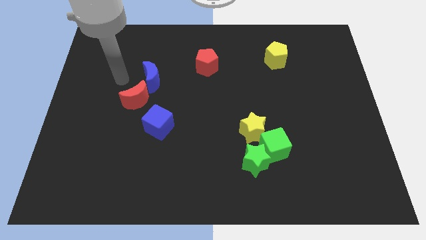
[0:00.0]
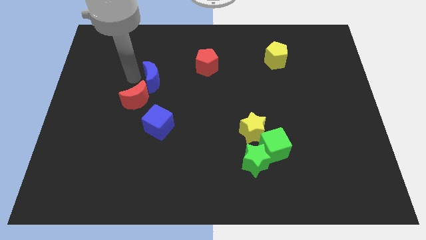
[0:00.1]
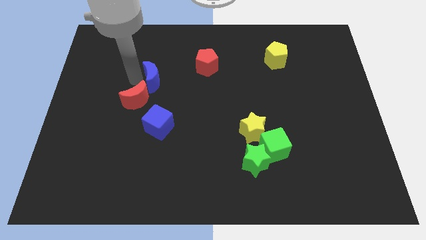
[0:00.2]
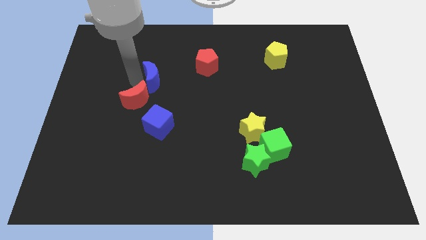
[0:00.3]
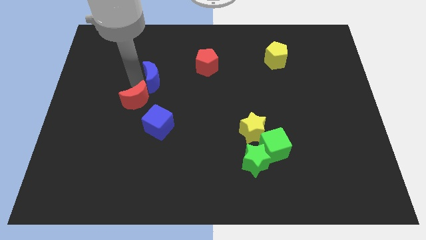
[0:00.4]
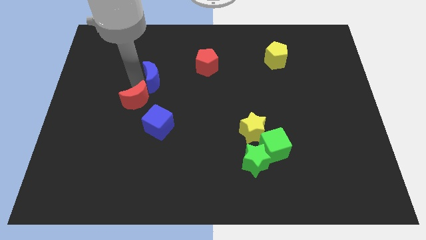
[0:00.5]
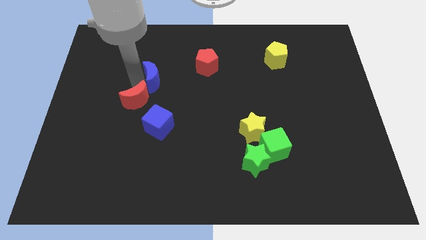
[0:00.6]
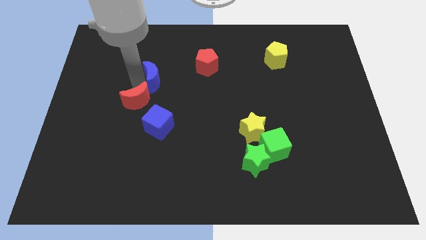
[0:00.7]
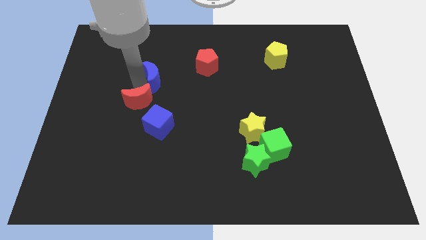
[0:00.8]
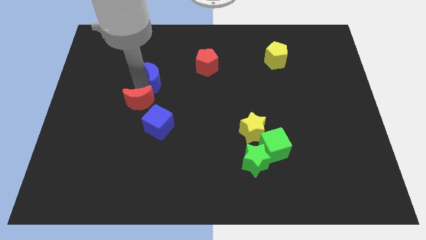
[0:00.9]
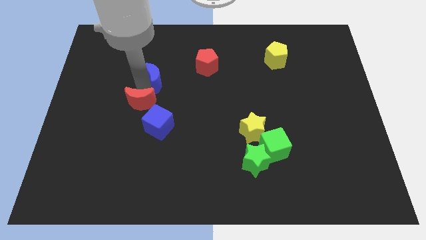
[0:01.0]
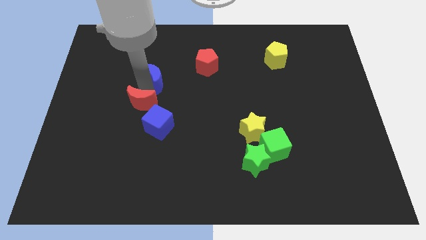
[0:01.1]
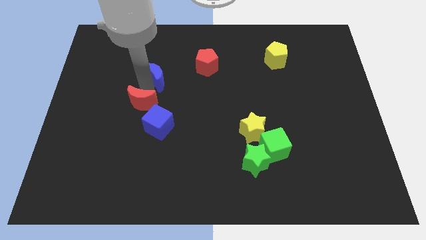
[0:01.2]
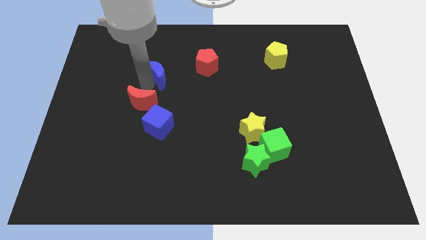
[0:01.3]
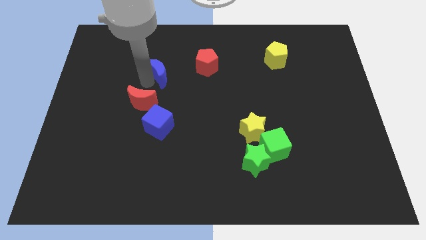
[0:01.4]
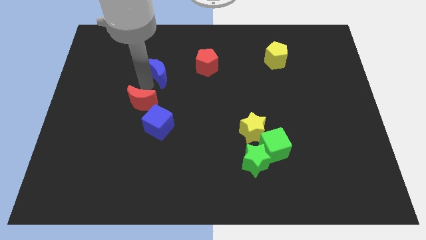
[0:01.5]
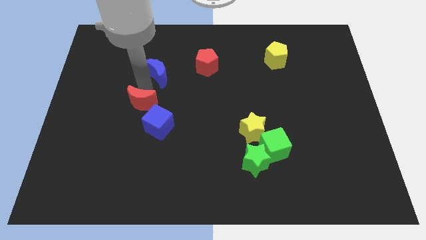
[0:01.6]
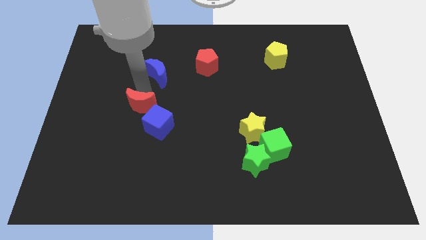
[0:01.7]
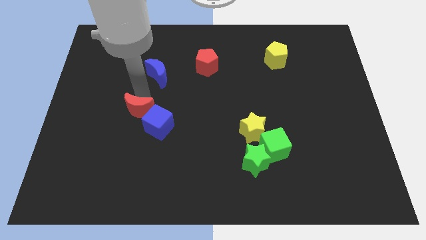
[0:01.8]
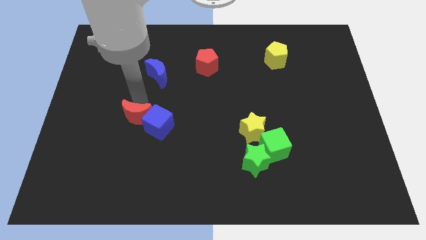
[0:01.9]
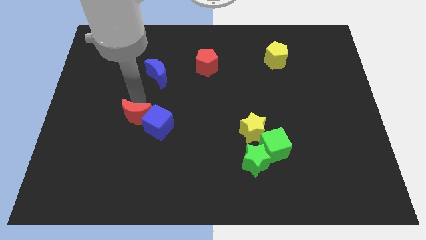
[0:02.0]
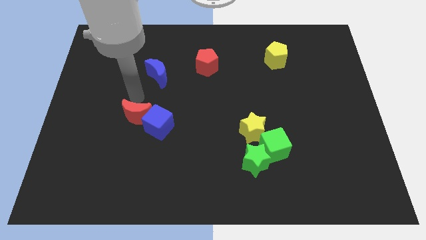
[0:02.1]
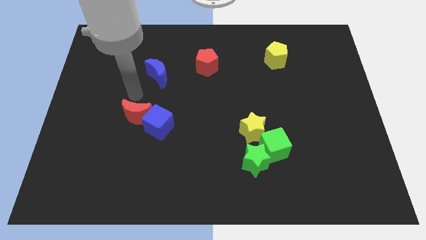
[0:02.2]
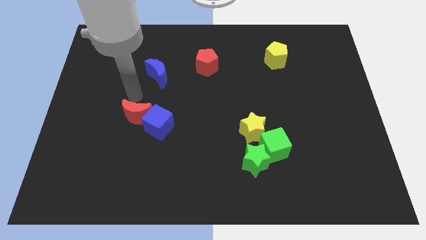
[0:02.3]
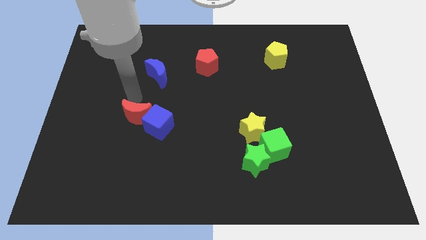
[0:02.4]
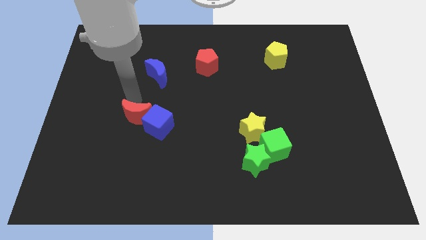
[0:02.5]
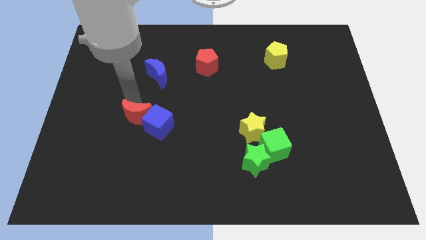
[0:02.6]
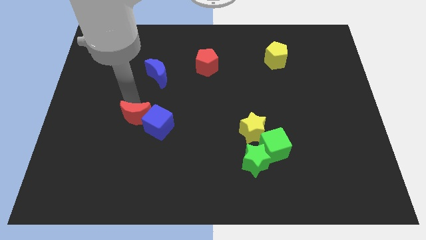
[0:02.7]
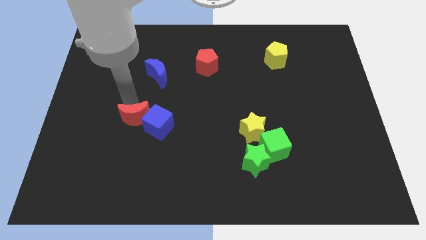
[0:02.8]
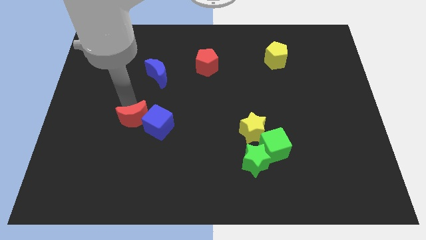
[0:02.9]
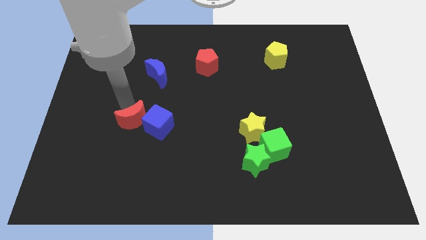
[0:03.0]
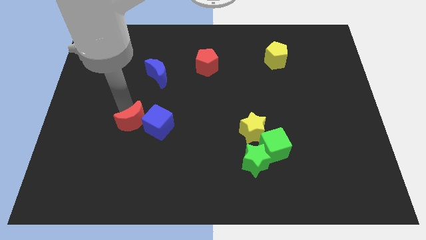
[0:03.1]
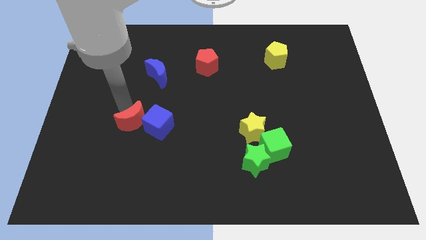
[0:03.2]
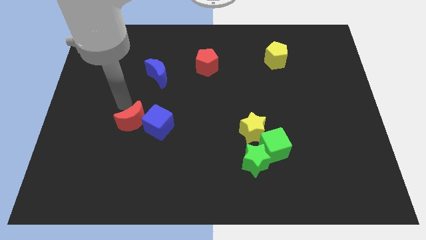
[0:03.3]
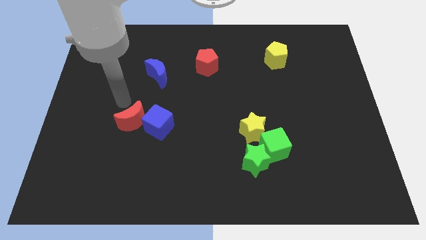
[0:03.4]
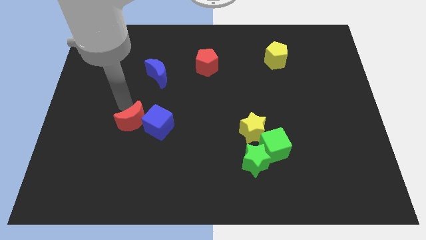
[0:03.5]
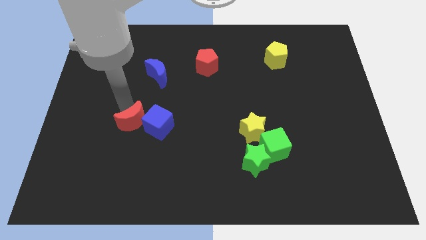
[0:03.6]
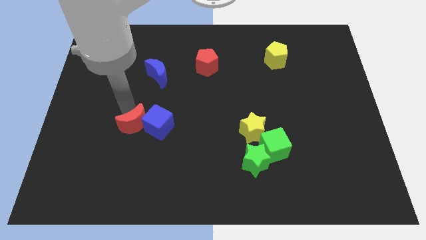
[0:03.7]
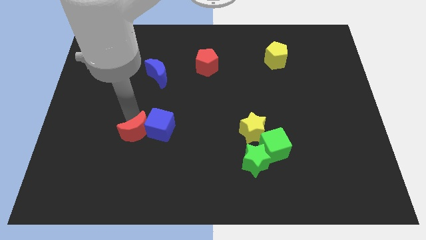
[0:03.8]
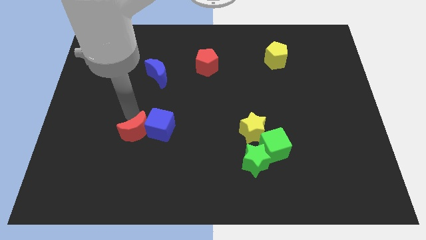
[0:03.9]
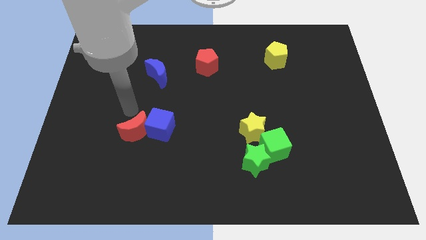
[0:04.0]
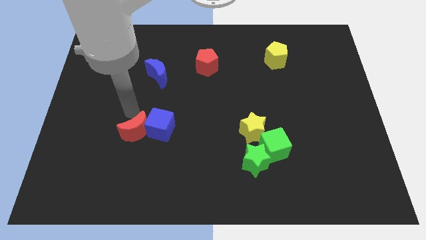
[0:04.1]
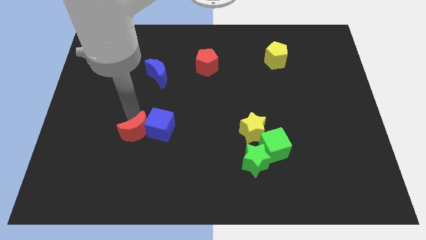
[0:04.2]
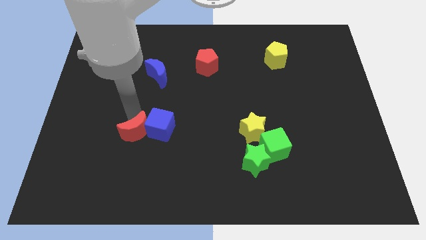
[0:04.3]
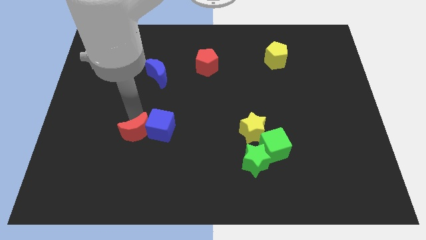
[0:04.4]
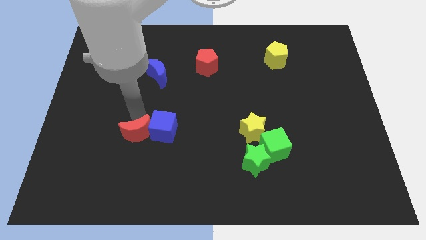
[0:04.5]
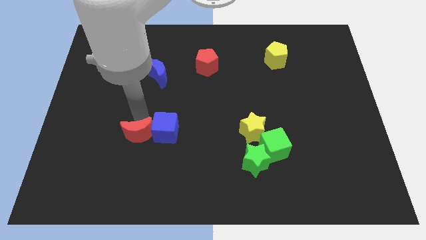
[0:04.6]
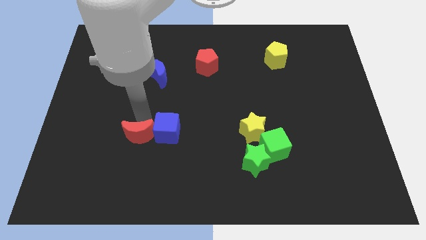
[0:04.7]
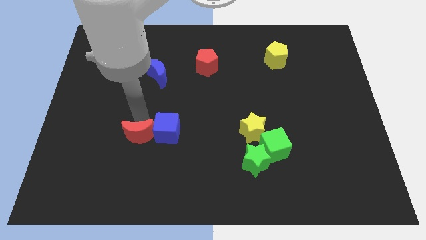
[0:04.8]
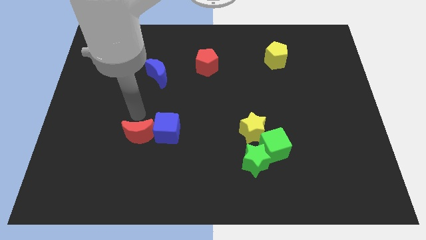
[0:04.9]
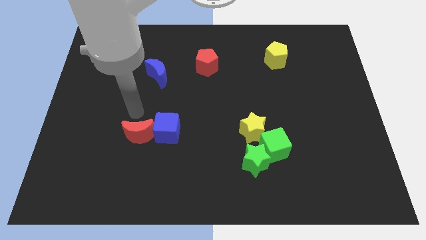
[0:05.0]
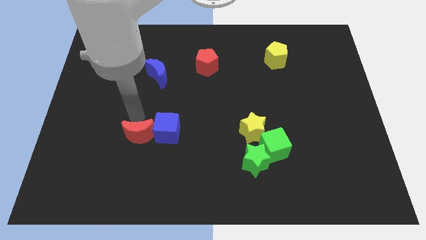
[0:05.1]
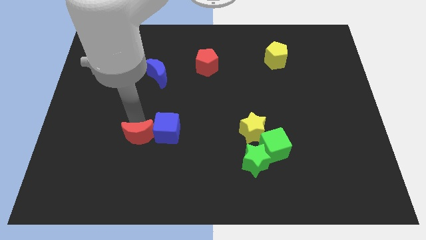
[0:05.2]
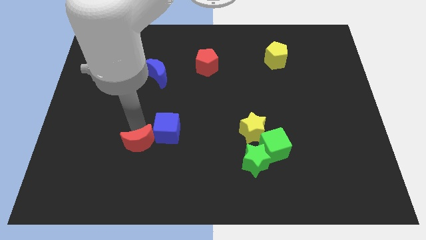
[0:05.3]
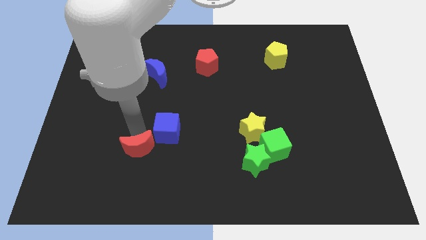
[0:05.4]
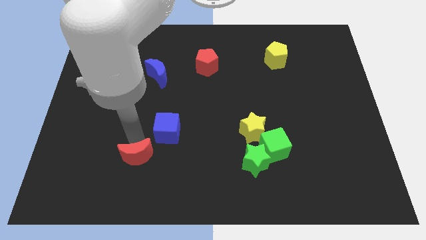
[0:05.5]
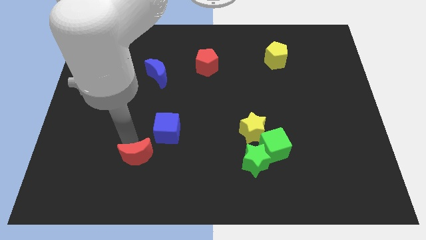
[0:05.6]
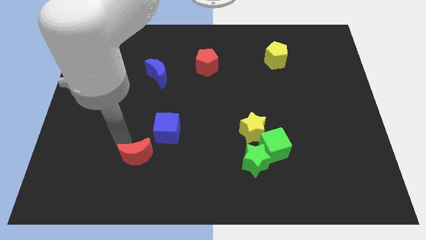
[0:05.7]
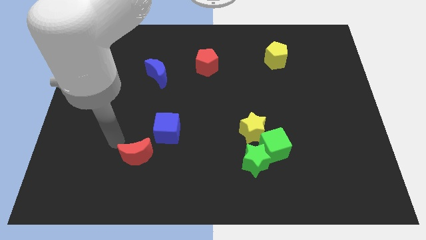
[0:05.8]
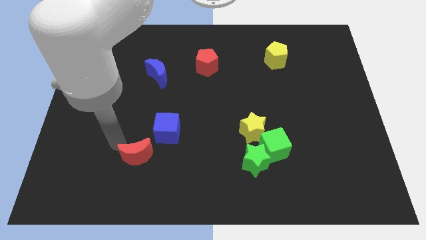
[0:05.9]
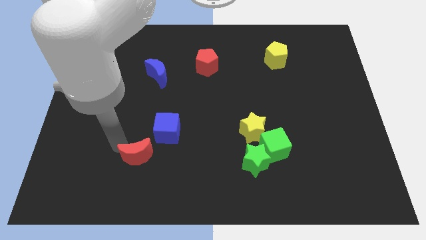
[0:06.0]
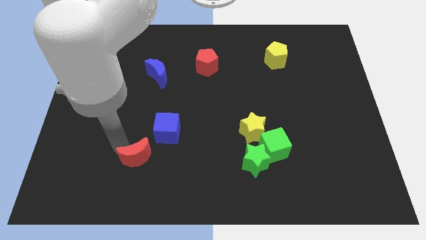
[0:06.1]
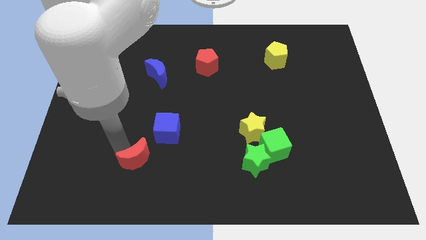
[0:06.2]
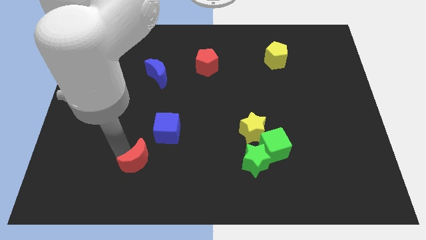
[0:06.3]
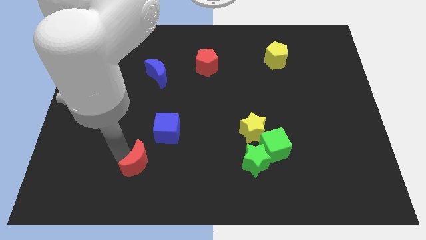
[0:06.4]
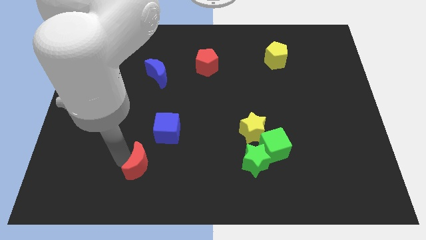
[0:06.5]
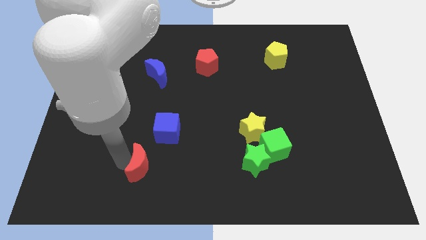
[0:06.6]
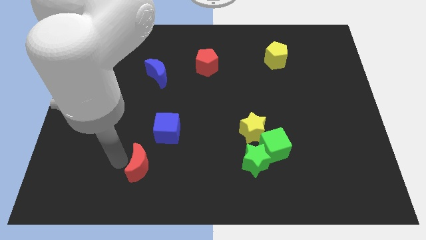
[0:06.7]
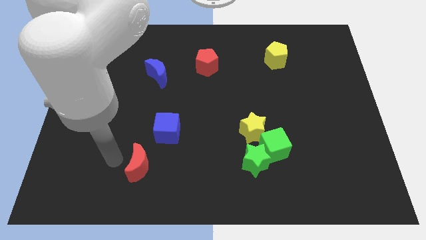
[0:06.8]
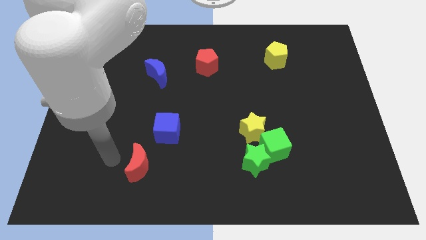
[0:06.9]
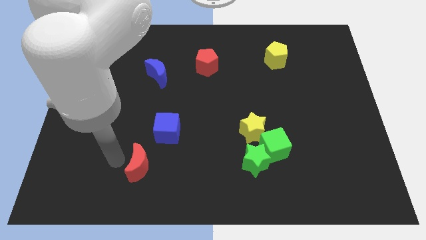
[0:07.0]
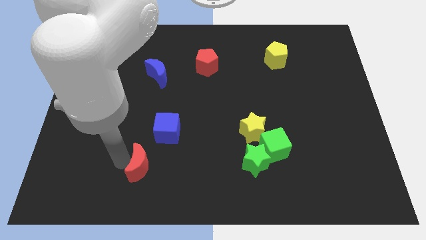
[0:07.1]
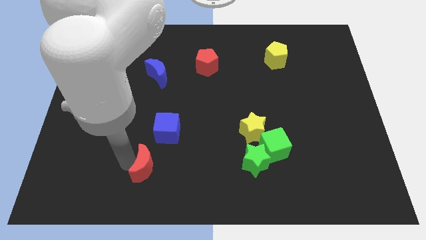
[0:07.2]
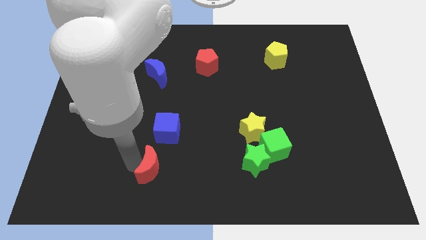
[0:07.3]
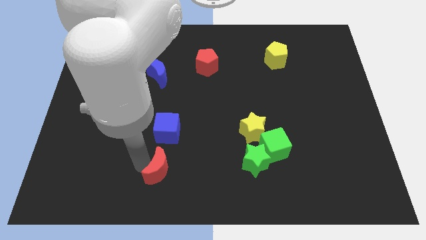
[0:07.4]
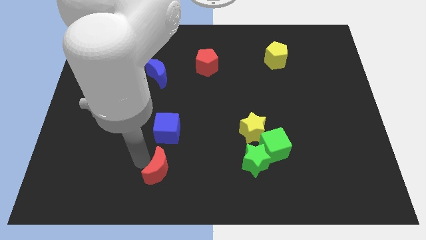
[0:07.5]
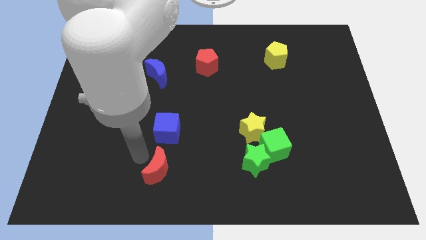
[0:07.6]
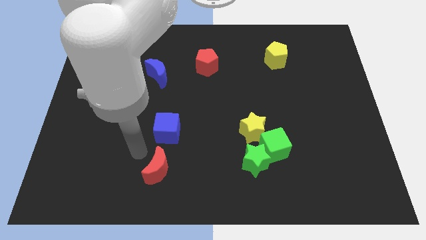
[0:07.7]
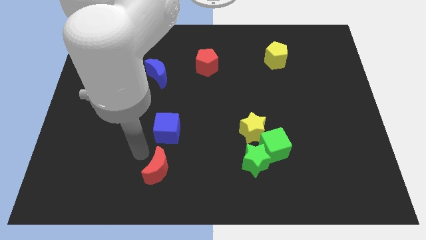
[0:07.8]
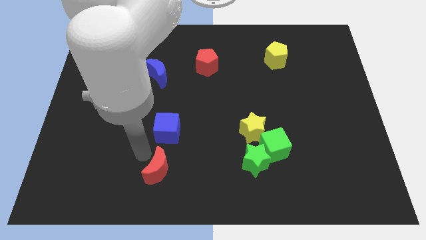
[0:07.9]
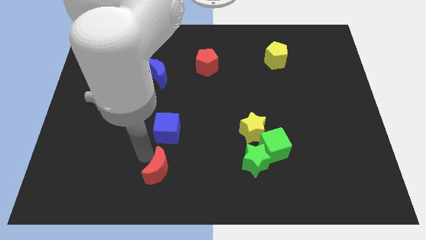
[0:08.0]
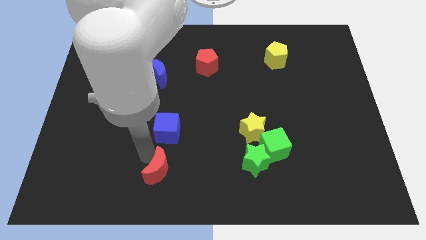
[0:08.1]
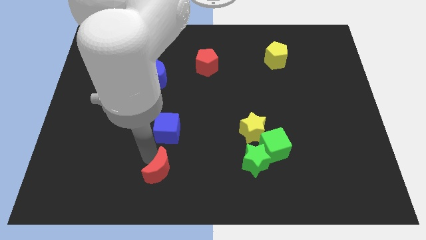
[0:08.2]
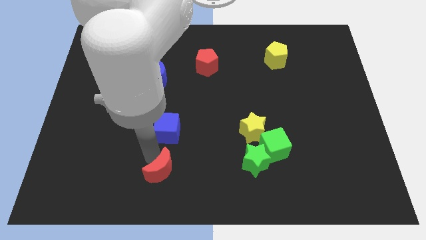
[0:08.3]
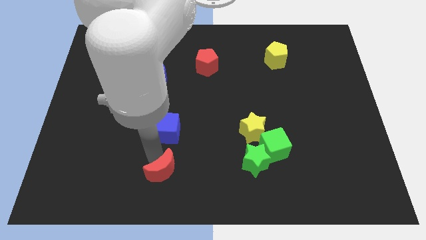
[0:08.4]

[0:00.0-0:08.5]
put the red moon to the bottom side
